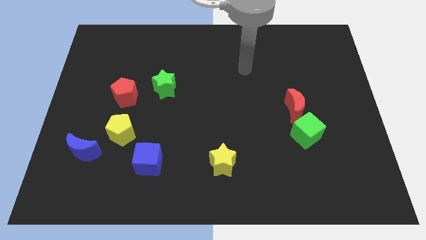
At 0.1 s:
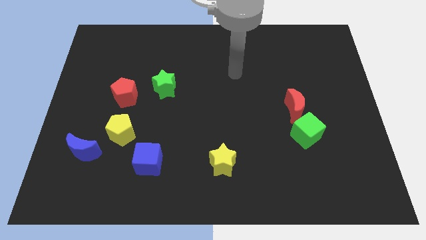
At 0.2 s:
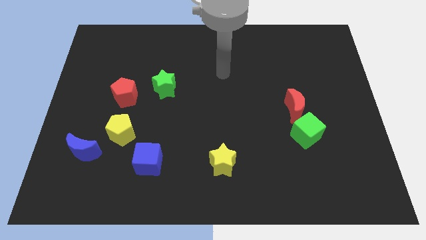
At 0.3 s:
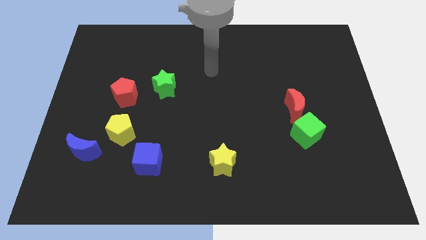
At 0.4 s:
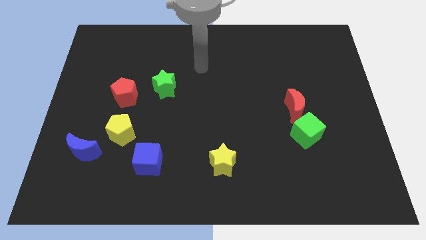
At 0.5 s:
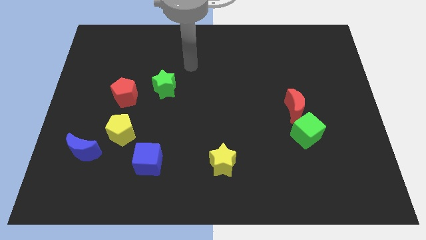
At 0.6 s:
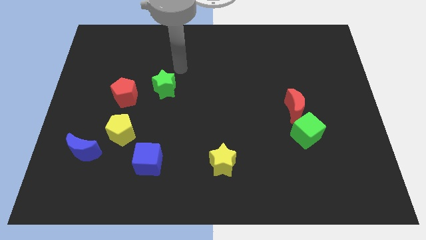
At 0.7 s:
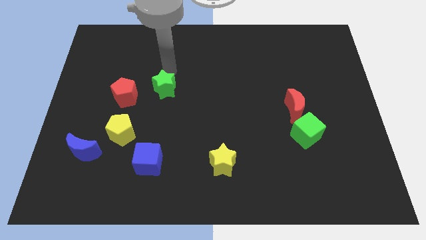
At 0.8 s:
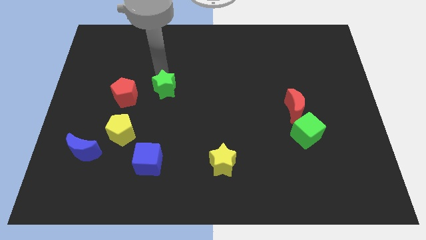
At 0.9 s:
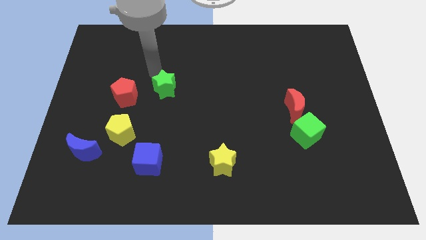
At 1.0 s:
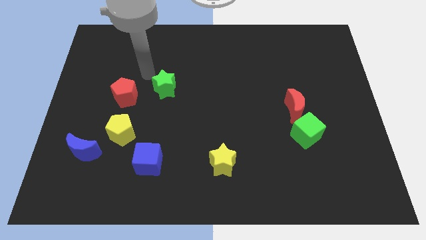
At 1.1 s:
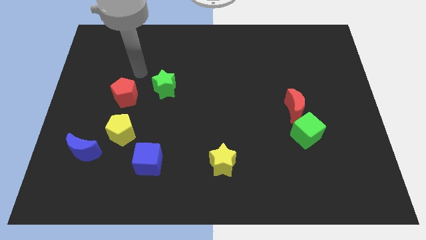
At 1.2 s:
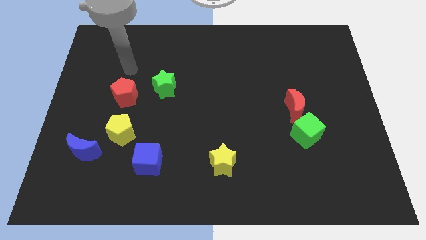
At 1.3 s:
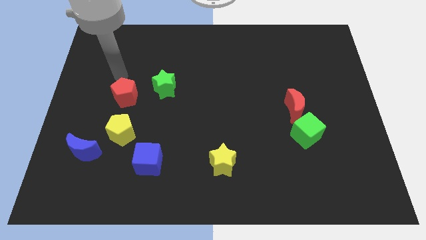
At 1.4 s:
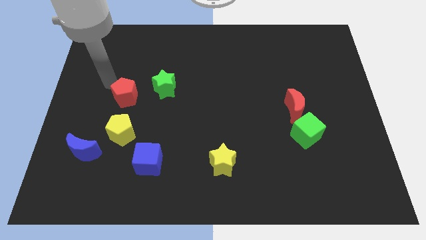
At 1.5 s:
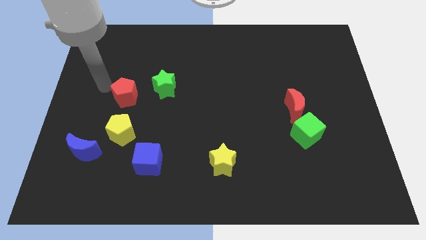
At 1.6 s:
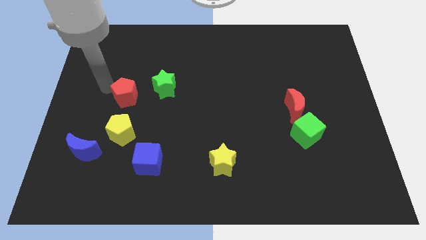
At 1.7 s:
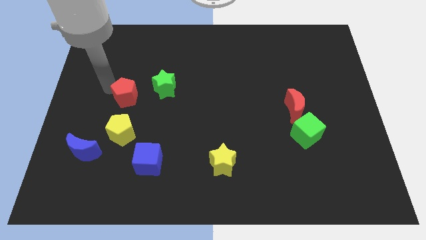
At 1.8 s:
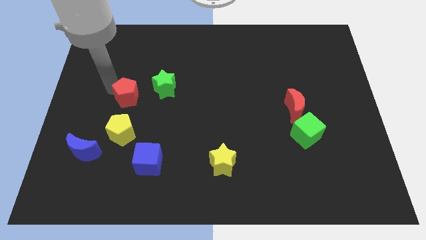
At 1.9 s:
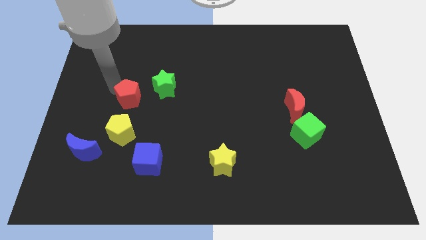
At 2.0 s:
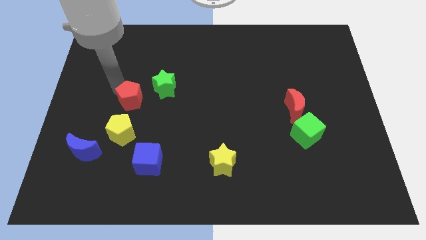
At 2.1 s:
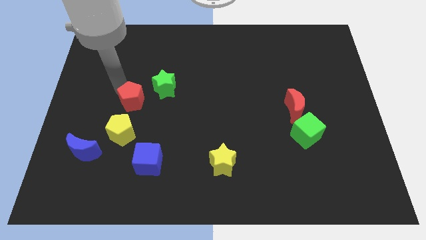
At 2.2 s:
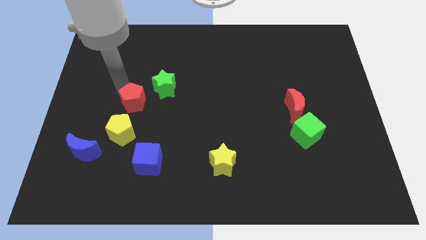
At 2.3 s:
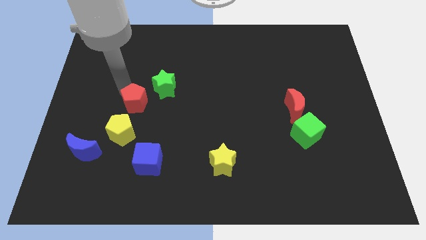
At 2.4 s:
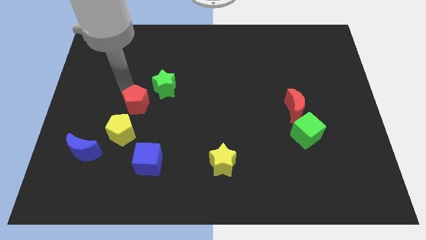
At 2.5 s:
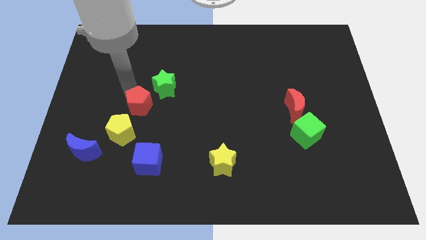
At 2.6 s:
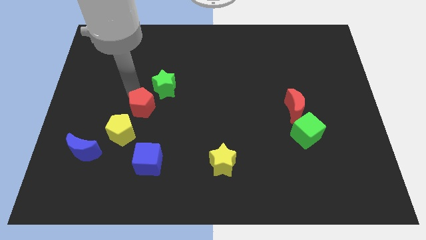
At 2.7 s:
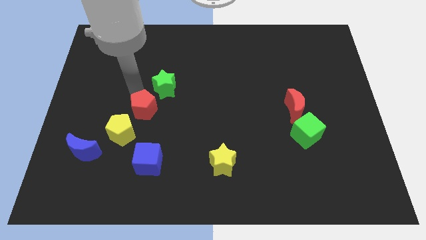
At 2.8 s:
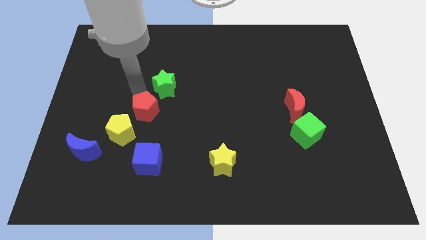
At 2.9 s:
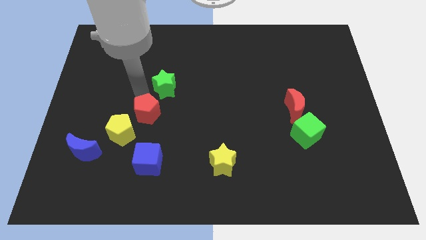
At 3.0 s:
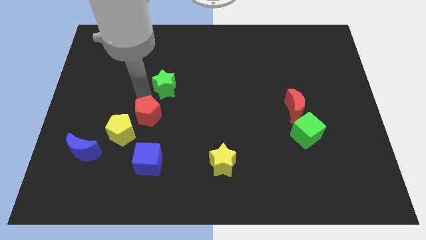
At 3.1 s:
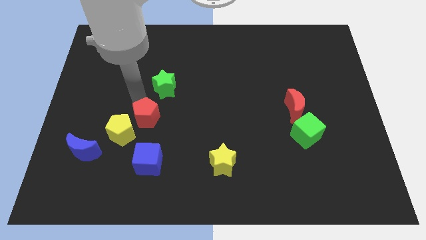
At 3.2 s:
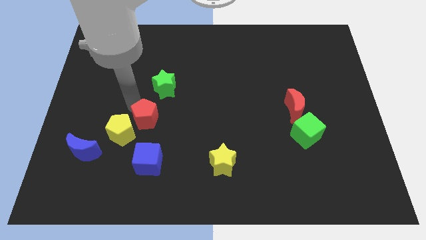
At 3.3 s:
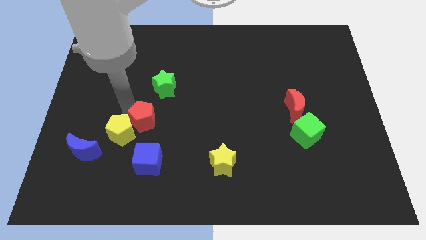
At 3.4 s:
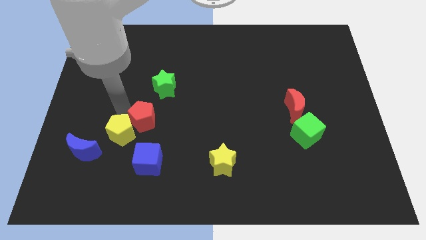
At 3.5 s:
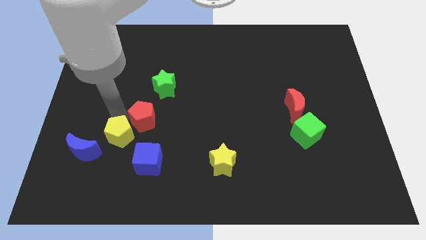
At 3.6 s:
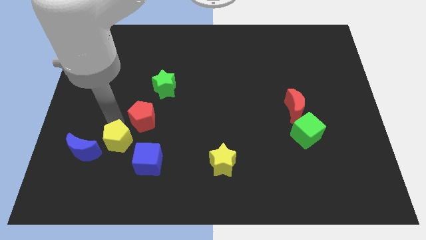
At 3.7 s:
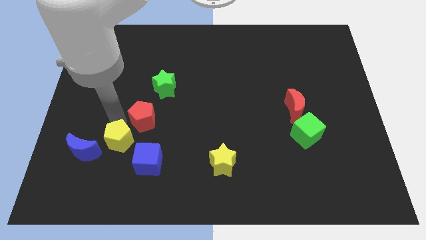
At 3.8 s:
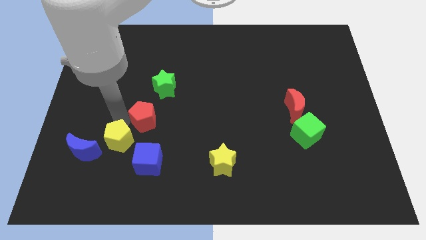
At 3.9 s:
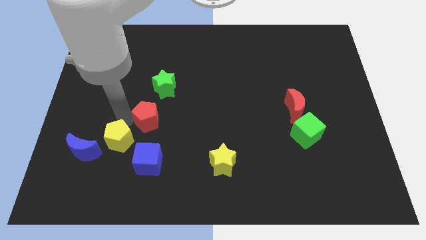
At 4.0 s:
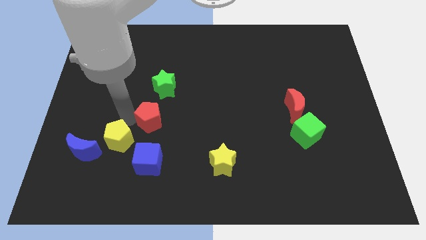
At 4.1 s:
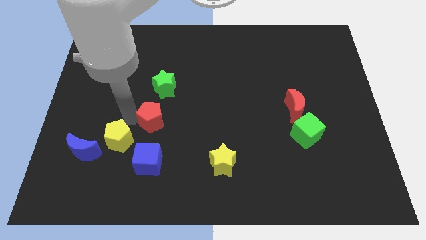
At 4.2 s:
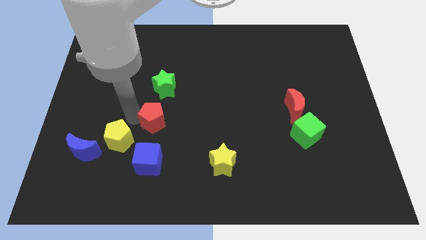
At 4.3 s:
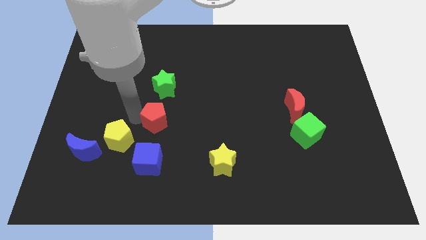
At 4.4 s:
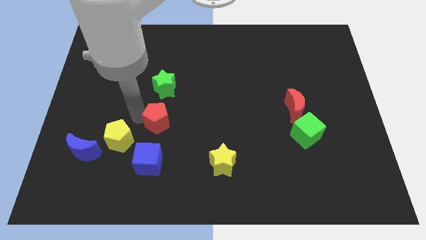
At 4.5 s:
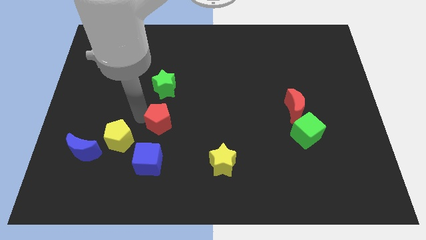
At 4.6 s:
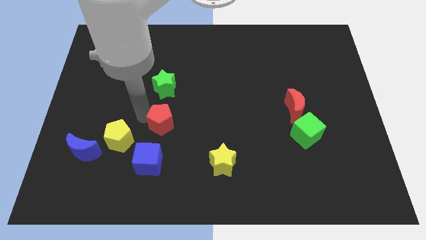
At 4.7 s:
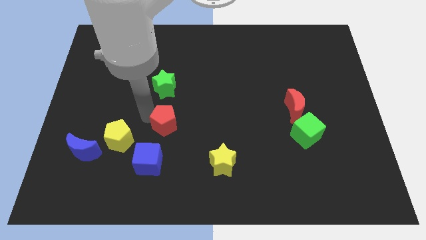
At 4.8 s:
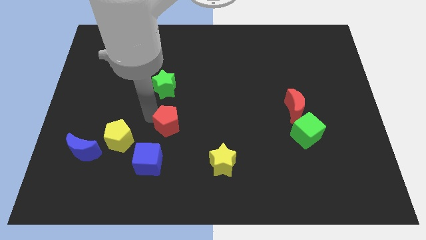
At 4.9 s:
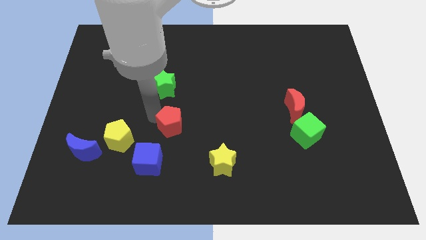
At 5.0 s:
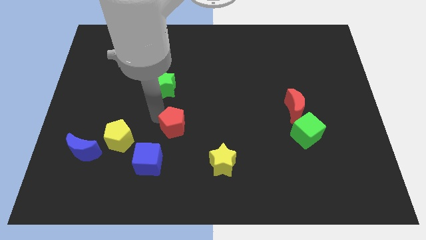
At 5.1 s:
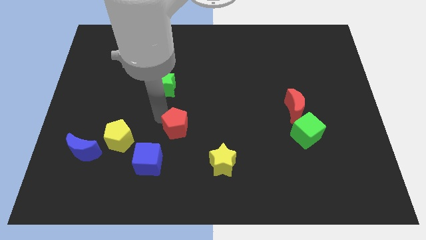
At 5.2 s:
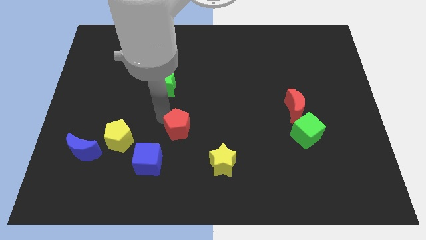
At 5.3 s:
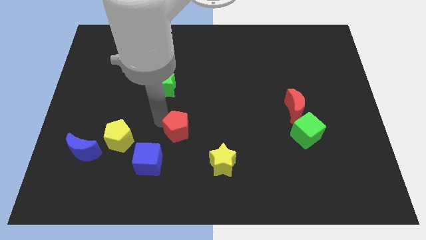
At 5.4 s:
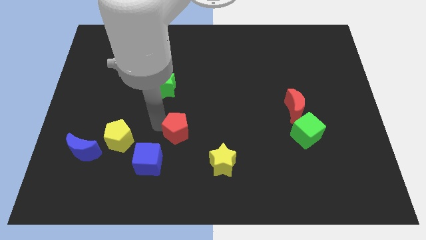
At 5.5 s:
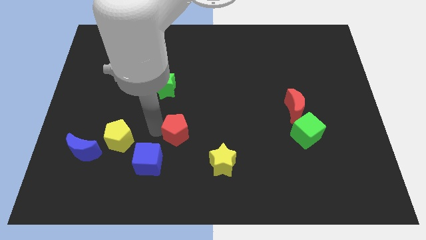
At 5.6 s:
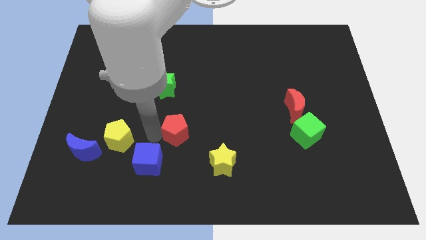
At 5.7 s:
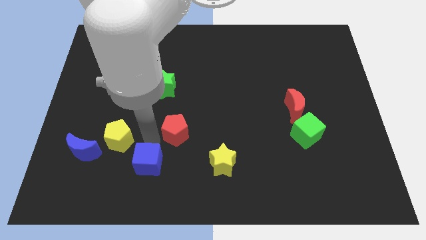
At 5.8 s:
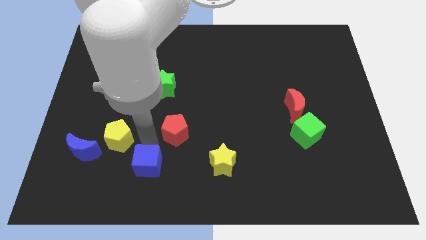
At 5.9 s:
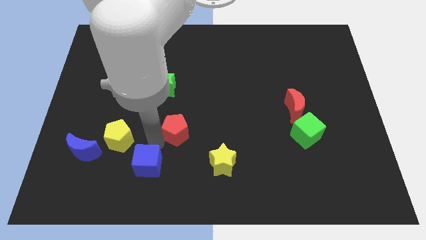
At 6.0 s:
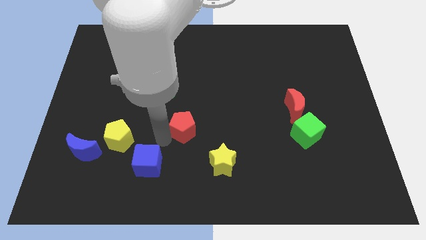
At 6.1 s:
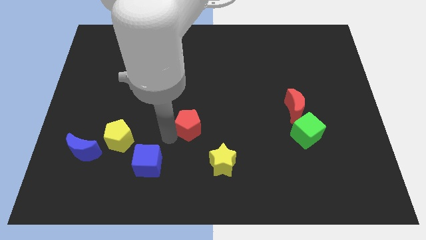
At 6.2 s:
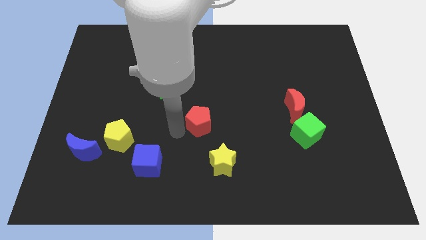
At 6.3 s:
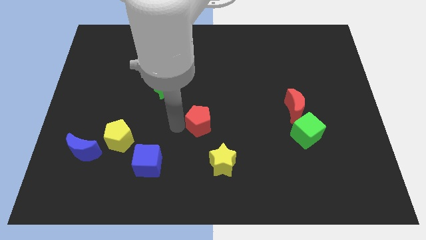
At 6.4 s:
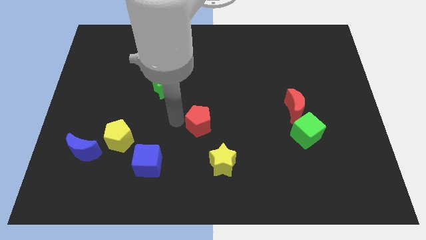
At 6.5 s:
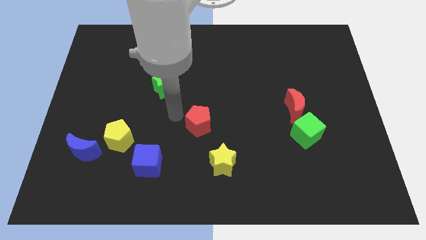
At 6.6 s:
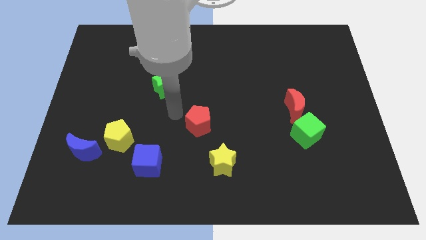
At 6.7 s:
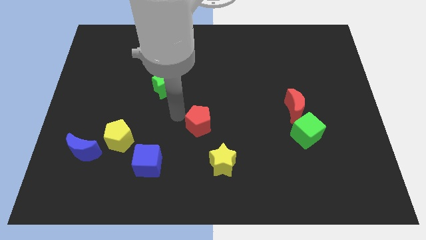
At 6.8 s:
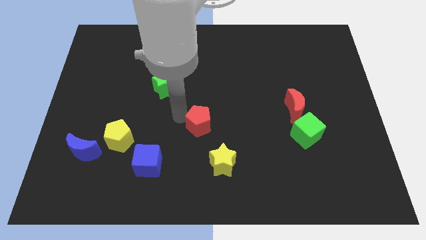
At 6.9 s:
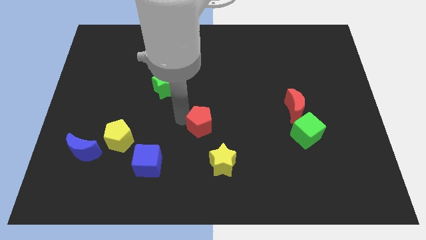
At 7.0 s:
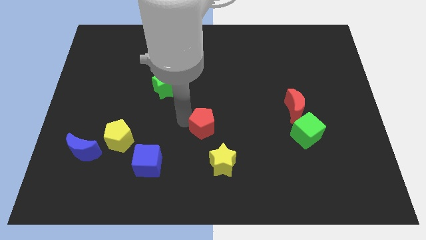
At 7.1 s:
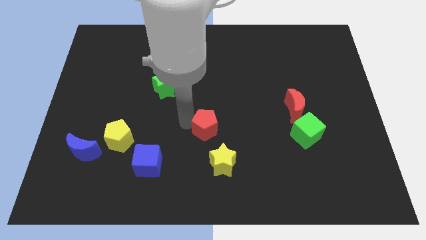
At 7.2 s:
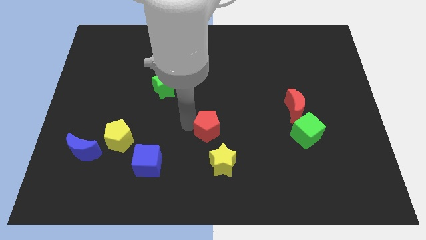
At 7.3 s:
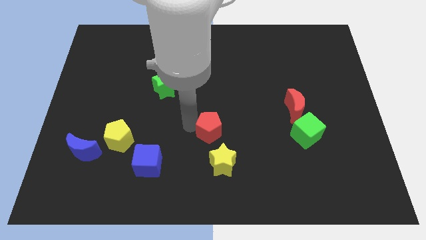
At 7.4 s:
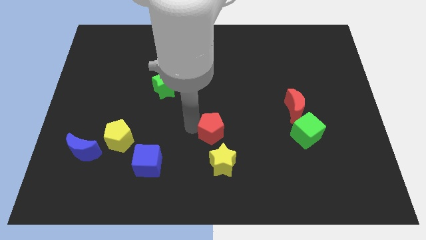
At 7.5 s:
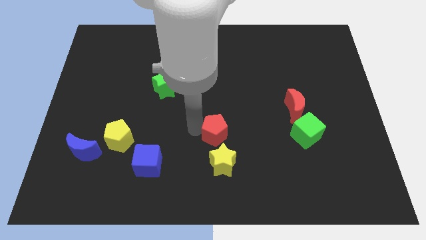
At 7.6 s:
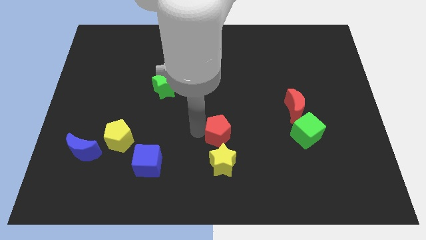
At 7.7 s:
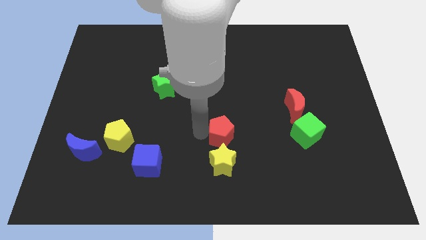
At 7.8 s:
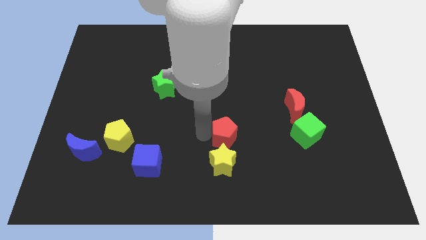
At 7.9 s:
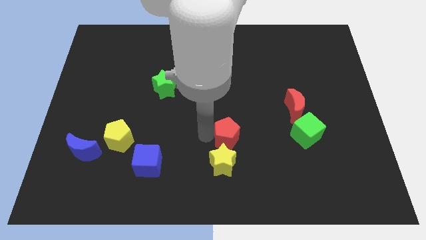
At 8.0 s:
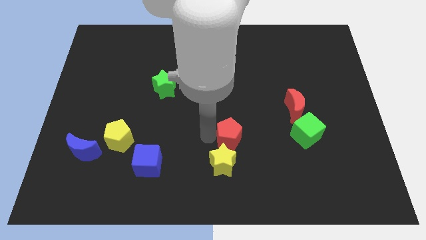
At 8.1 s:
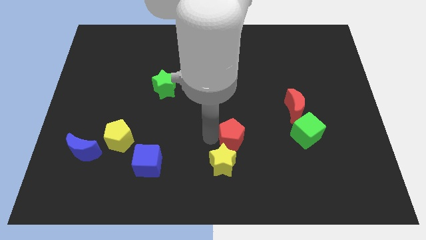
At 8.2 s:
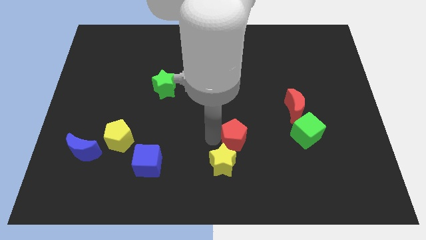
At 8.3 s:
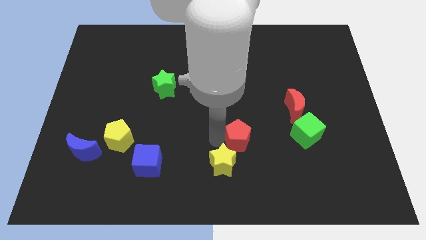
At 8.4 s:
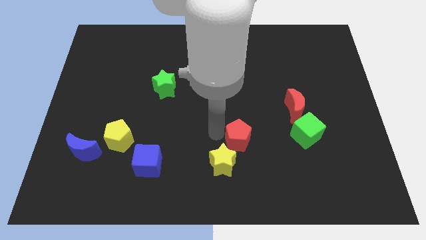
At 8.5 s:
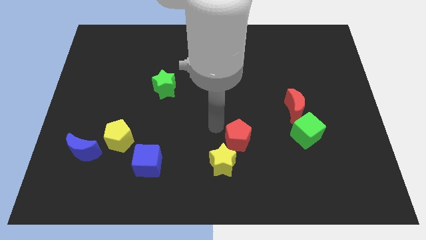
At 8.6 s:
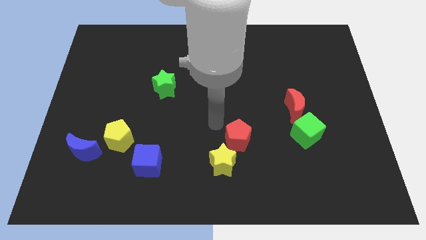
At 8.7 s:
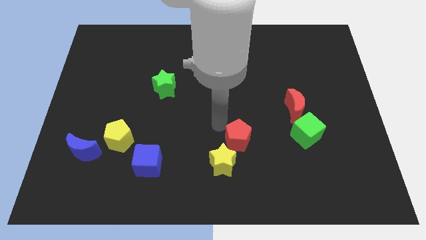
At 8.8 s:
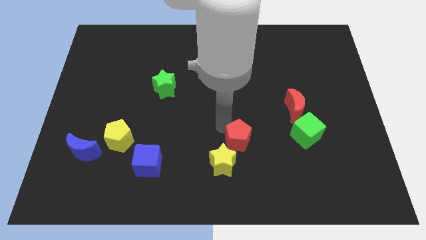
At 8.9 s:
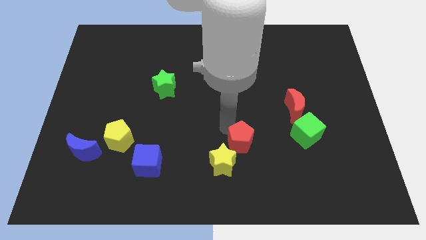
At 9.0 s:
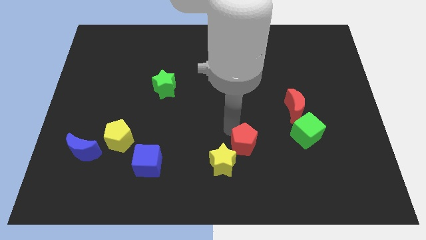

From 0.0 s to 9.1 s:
slide the red pentagon right of the yellow star
